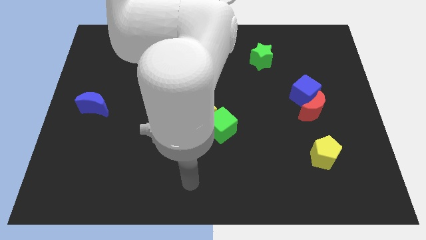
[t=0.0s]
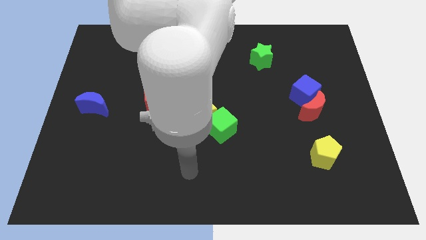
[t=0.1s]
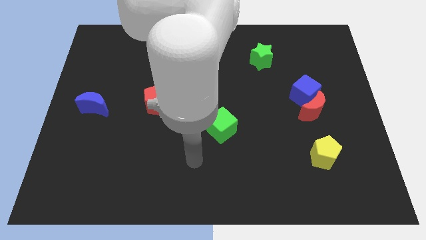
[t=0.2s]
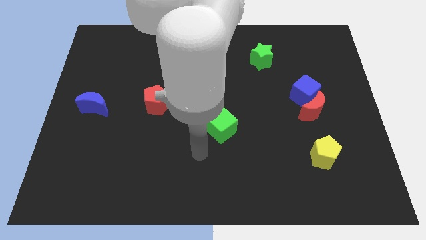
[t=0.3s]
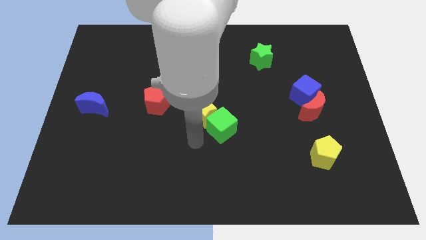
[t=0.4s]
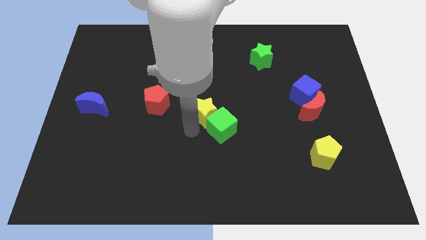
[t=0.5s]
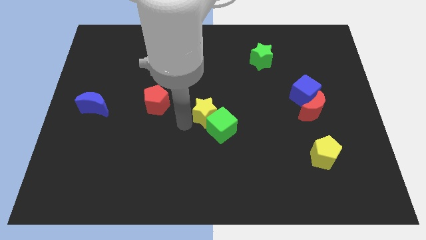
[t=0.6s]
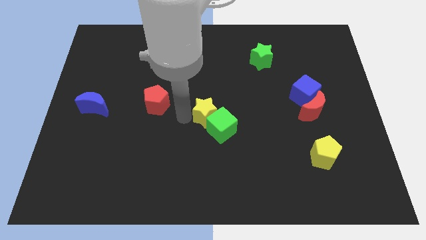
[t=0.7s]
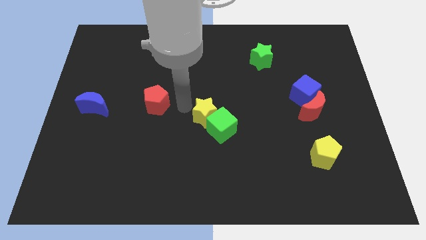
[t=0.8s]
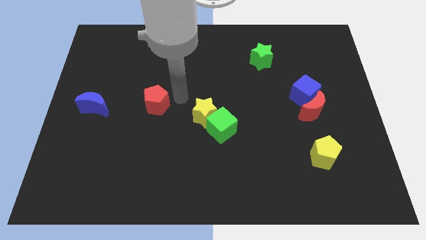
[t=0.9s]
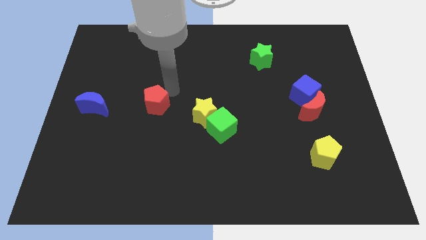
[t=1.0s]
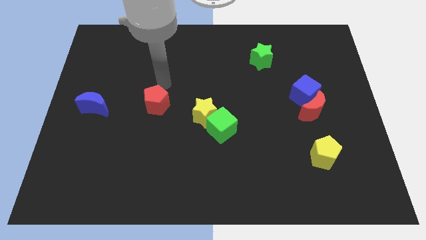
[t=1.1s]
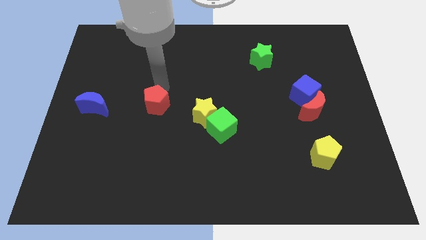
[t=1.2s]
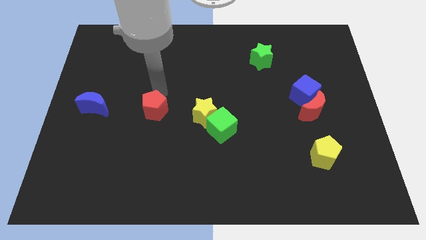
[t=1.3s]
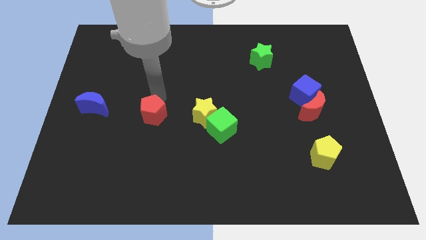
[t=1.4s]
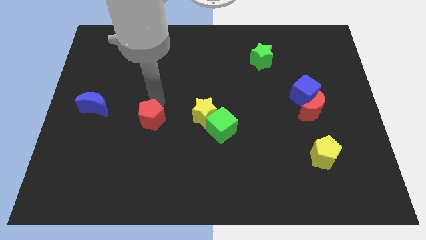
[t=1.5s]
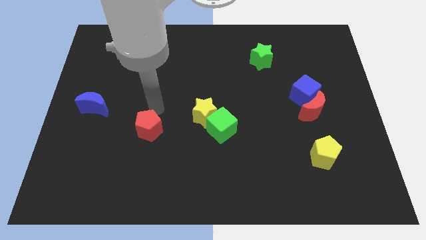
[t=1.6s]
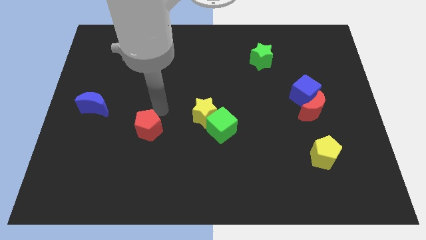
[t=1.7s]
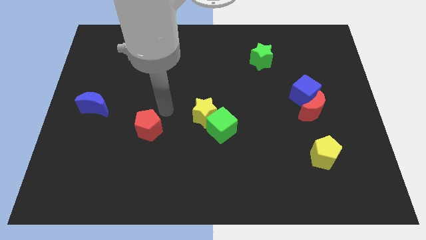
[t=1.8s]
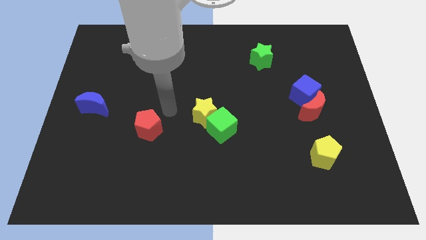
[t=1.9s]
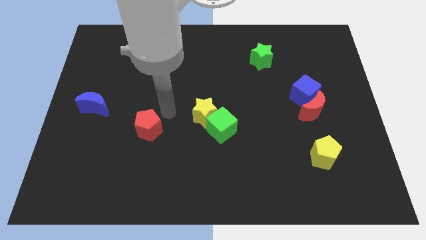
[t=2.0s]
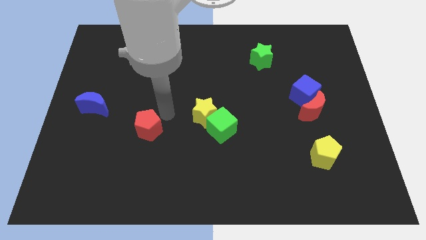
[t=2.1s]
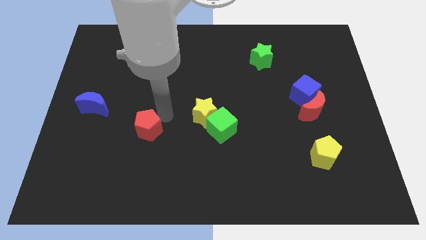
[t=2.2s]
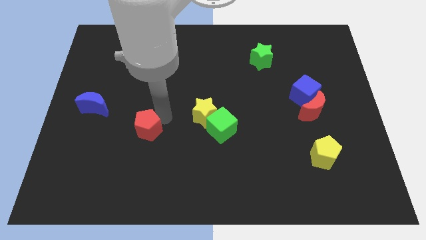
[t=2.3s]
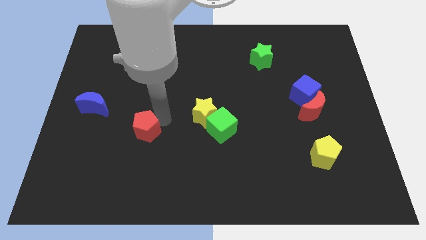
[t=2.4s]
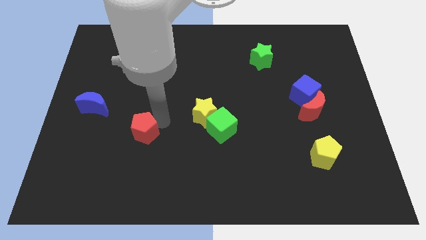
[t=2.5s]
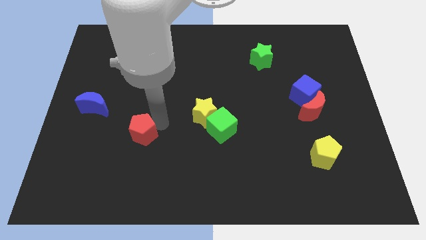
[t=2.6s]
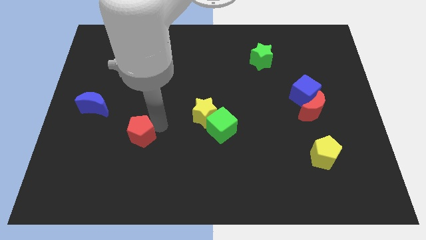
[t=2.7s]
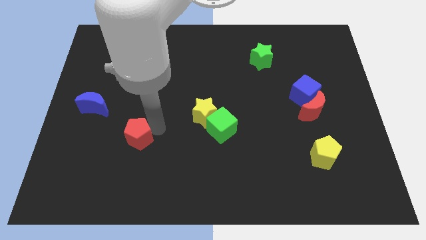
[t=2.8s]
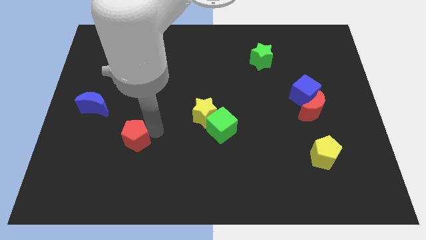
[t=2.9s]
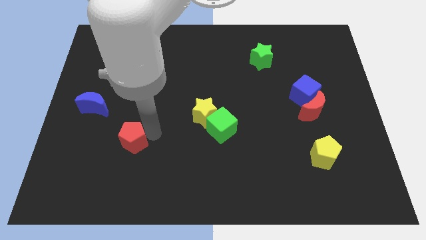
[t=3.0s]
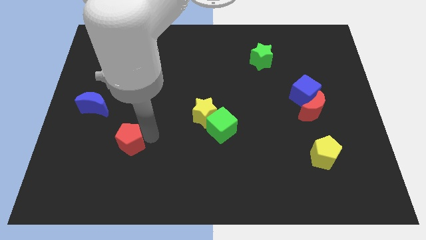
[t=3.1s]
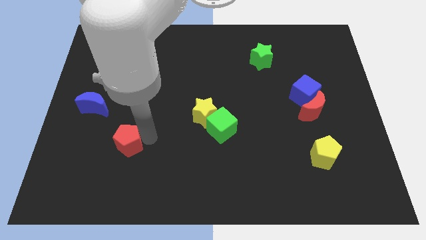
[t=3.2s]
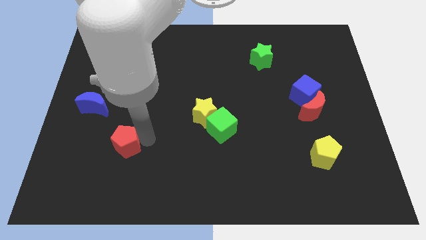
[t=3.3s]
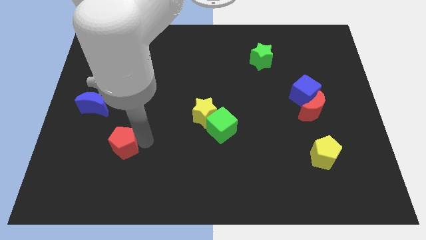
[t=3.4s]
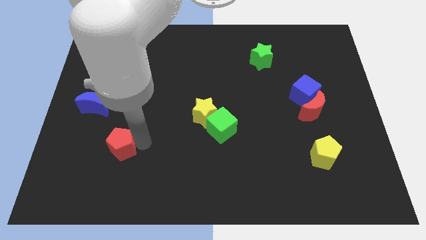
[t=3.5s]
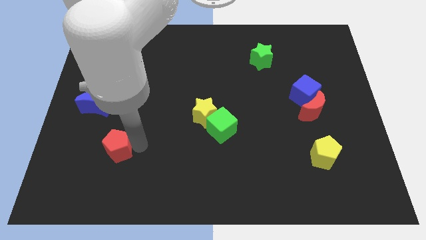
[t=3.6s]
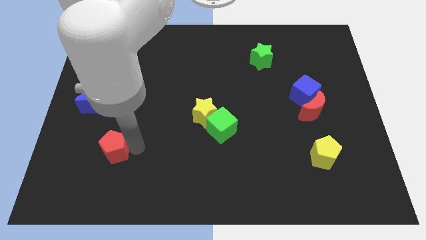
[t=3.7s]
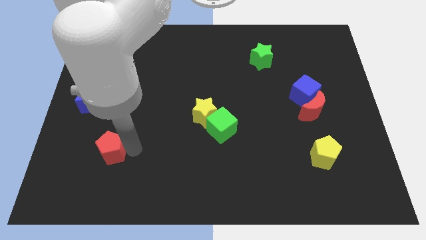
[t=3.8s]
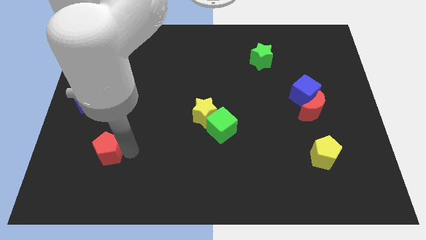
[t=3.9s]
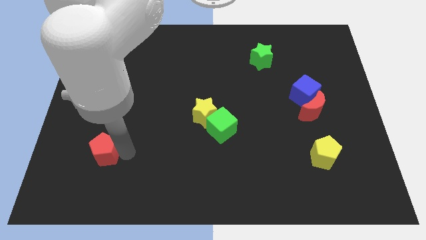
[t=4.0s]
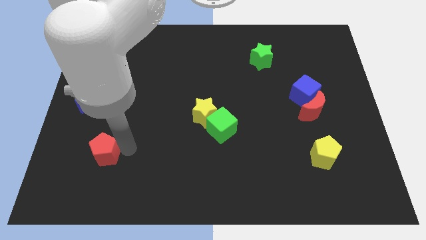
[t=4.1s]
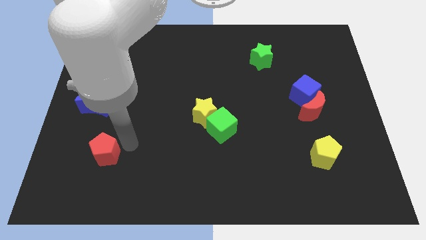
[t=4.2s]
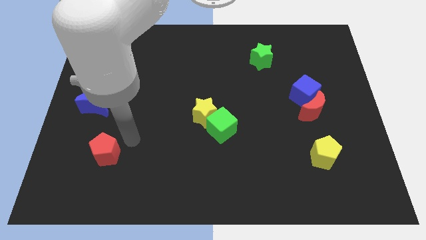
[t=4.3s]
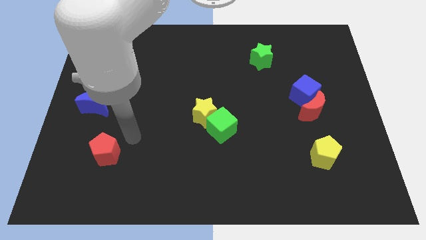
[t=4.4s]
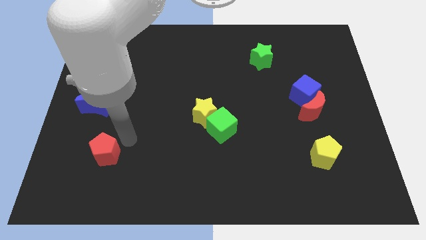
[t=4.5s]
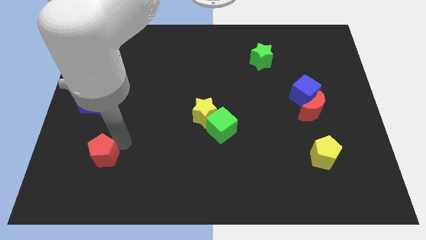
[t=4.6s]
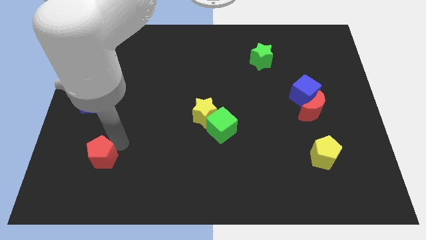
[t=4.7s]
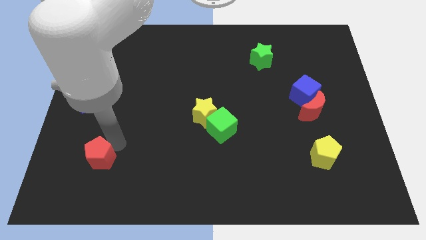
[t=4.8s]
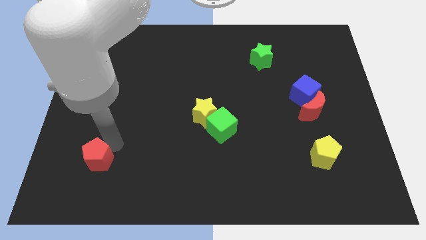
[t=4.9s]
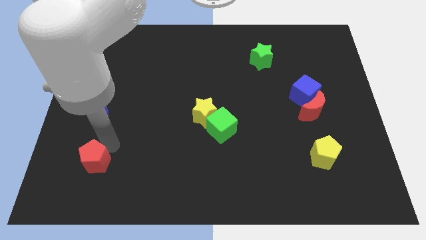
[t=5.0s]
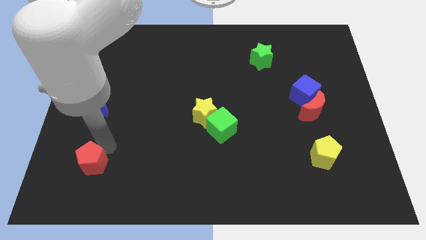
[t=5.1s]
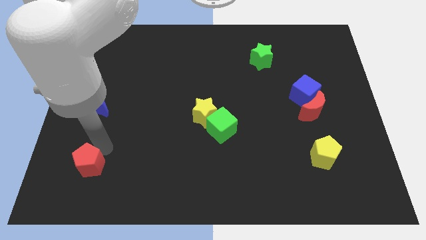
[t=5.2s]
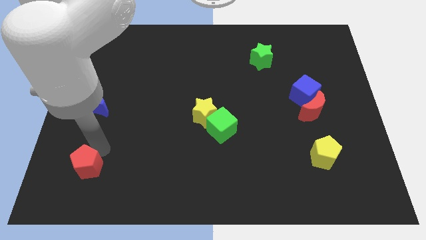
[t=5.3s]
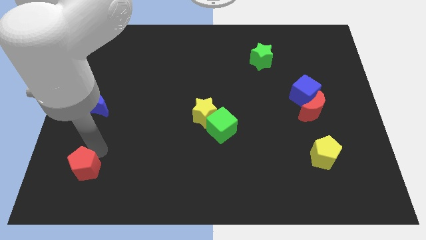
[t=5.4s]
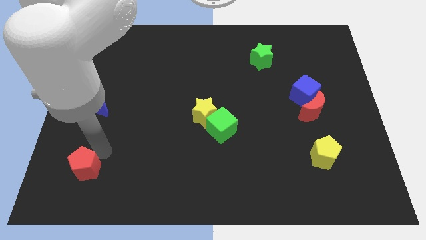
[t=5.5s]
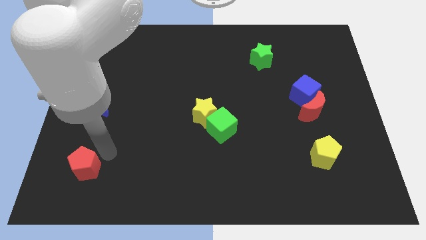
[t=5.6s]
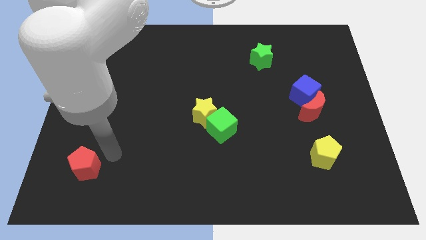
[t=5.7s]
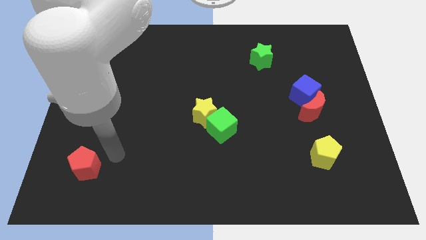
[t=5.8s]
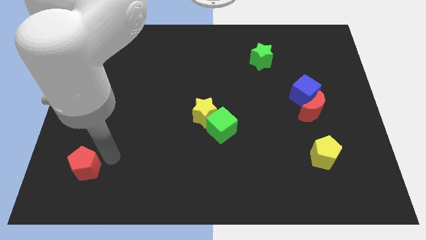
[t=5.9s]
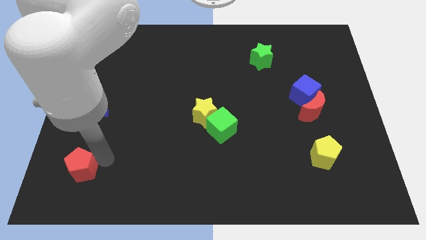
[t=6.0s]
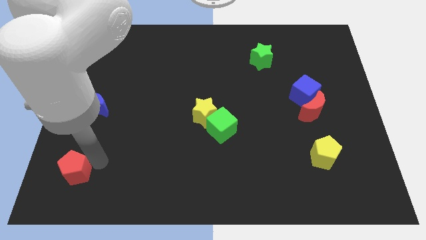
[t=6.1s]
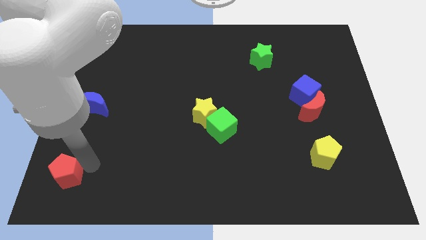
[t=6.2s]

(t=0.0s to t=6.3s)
put the red pentagon to the bottom left of the board
